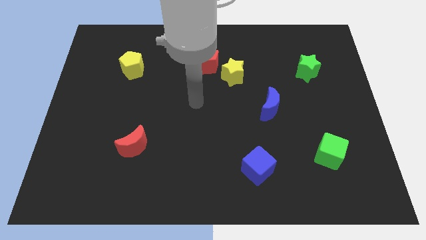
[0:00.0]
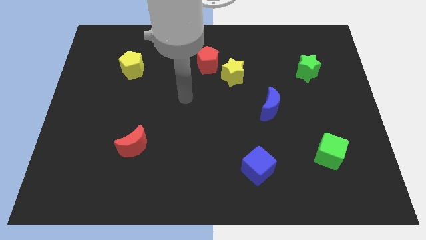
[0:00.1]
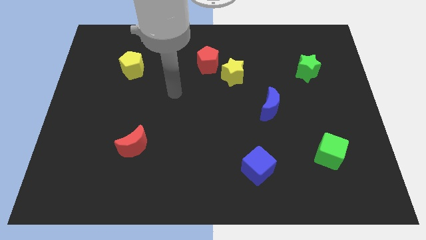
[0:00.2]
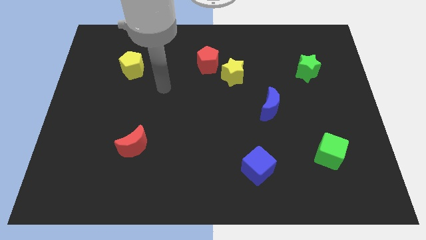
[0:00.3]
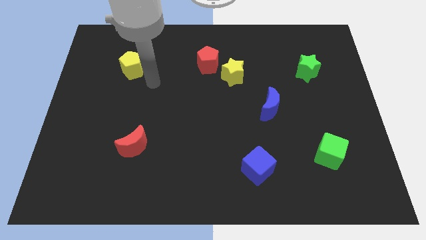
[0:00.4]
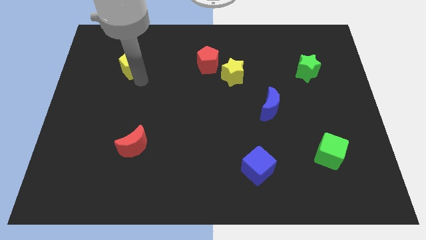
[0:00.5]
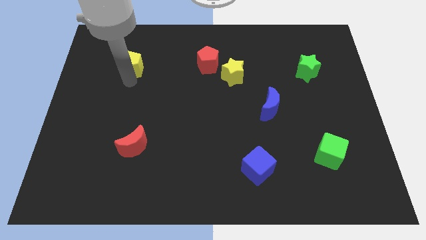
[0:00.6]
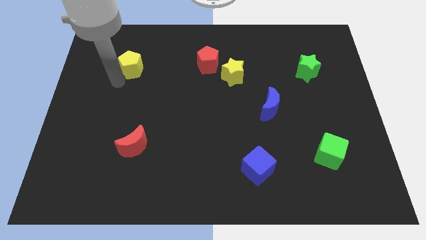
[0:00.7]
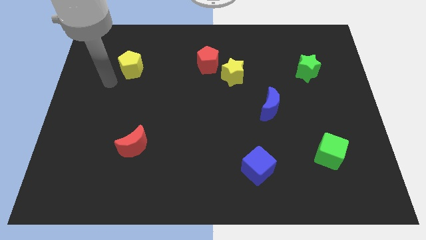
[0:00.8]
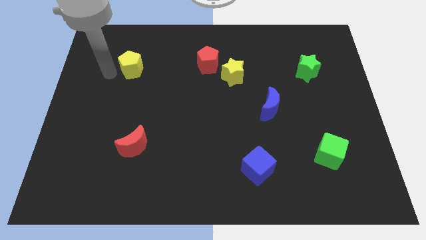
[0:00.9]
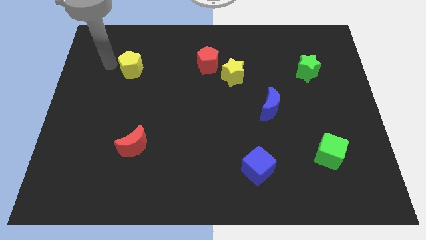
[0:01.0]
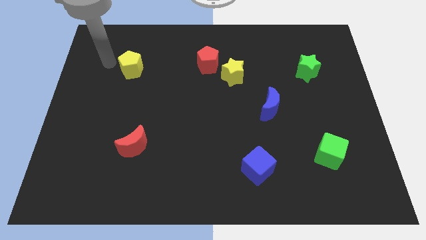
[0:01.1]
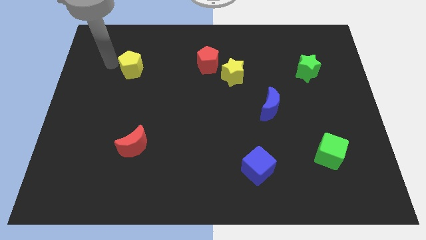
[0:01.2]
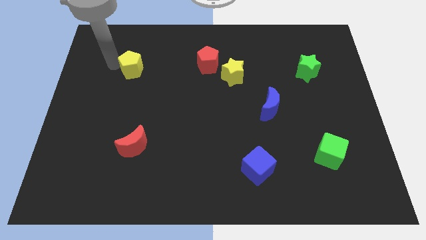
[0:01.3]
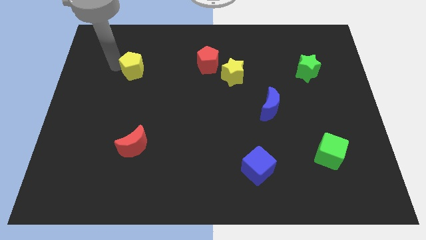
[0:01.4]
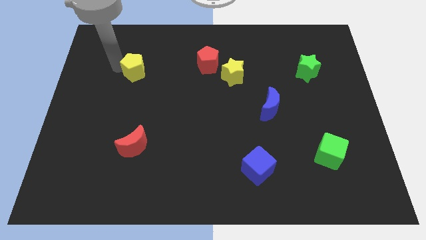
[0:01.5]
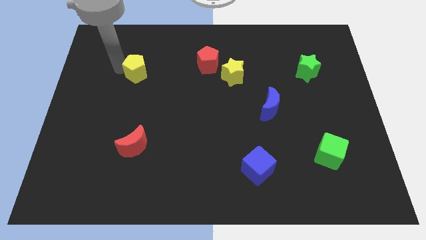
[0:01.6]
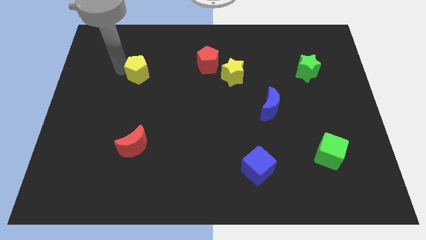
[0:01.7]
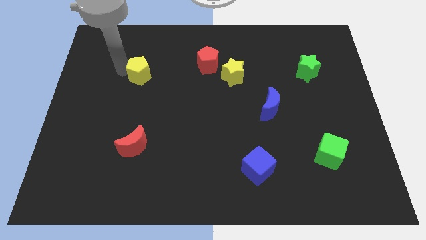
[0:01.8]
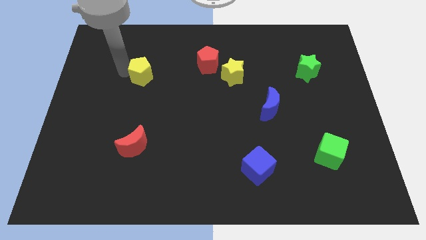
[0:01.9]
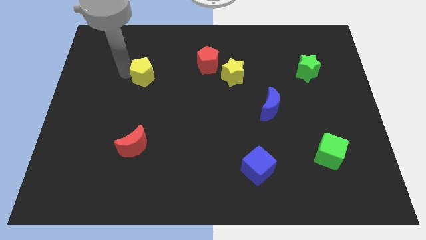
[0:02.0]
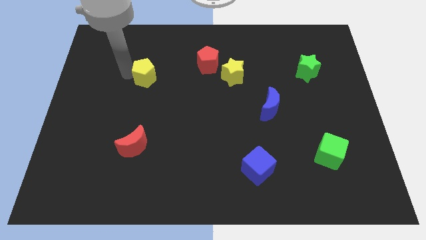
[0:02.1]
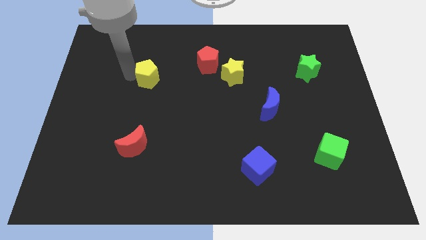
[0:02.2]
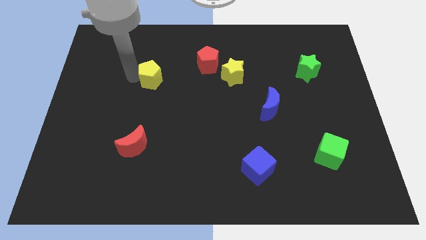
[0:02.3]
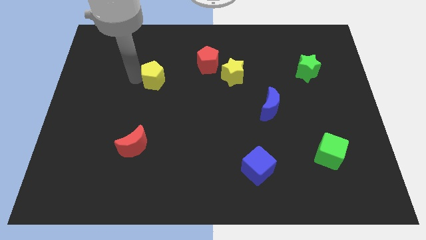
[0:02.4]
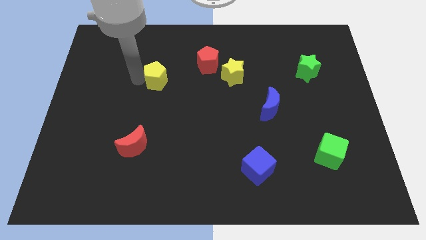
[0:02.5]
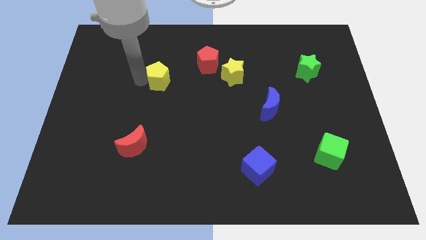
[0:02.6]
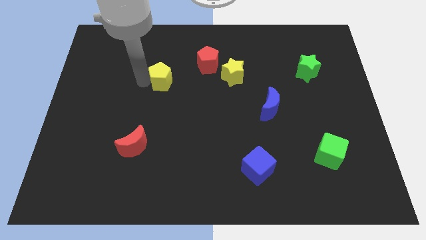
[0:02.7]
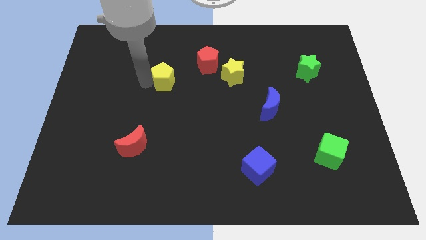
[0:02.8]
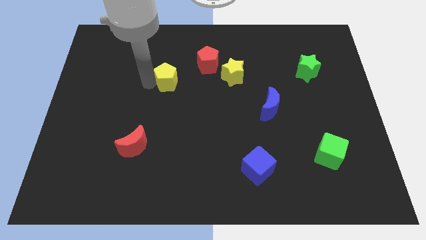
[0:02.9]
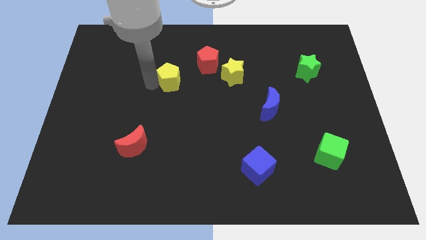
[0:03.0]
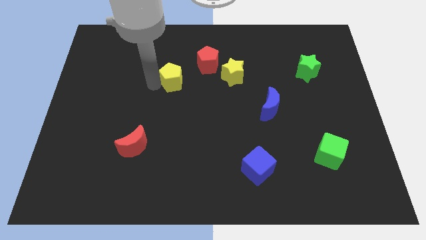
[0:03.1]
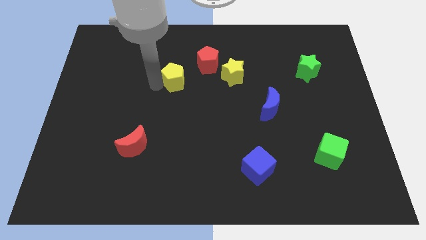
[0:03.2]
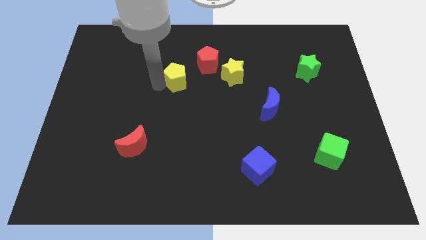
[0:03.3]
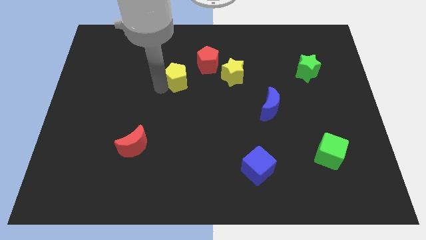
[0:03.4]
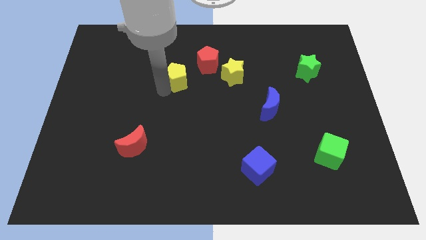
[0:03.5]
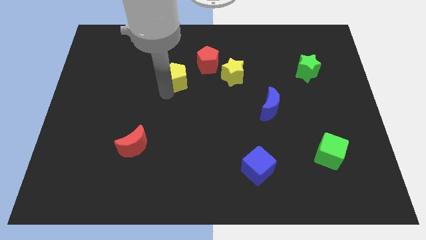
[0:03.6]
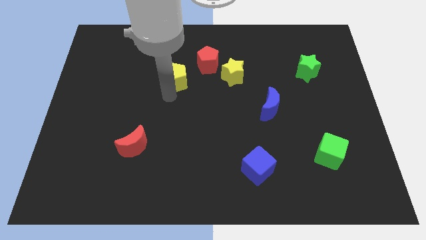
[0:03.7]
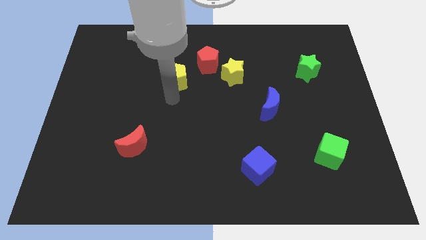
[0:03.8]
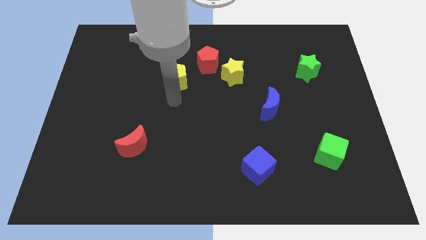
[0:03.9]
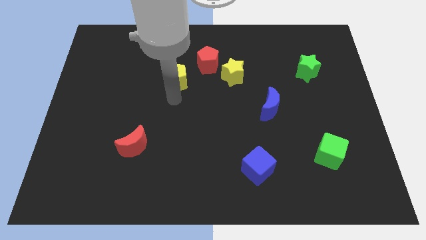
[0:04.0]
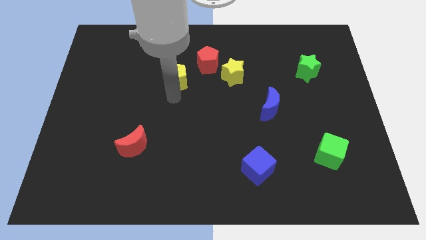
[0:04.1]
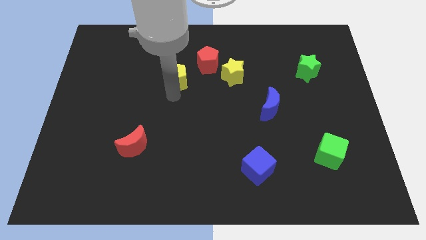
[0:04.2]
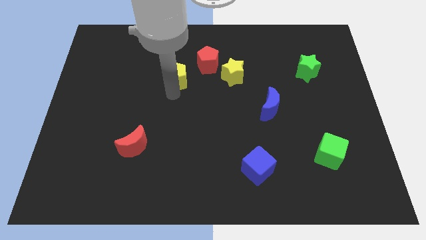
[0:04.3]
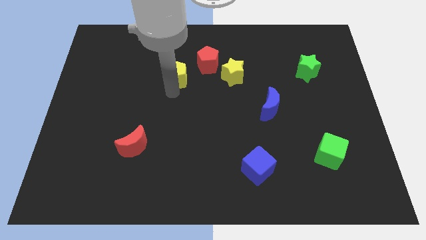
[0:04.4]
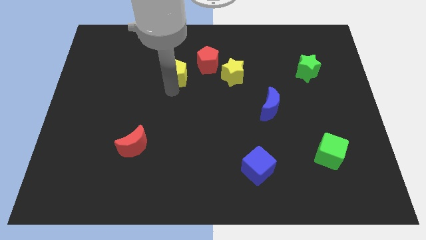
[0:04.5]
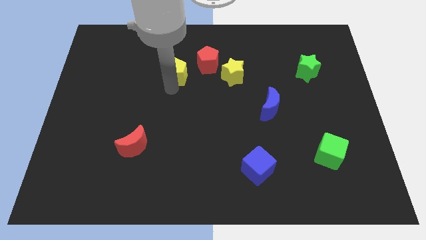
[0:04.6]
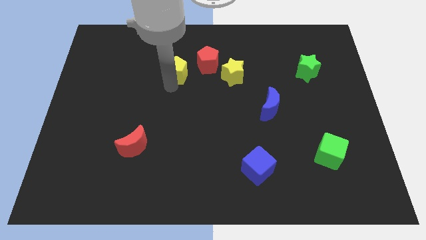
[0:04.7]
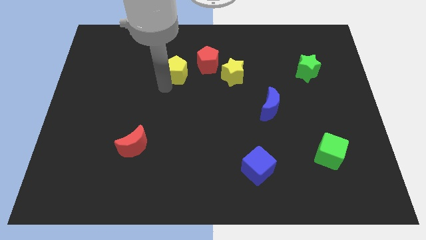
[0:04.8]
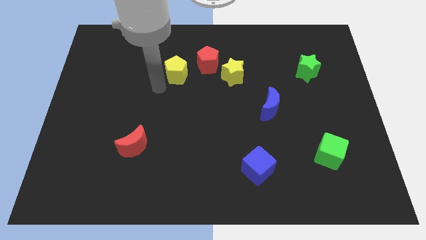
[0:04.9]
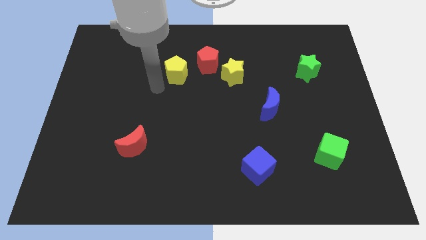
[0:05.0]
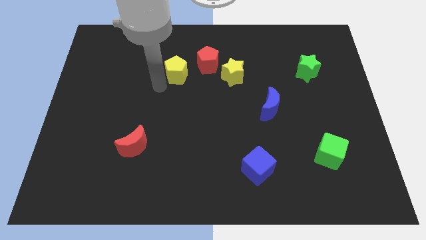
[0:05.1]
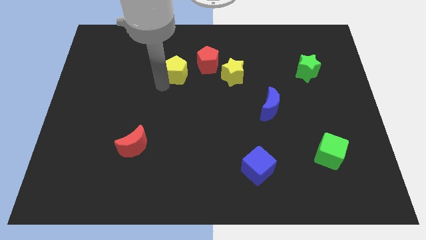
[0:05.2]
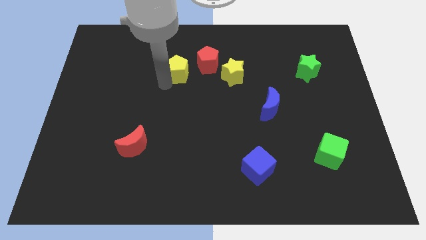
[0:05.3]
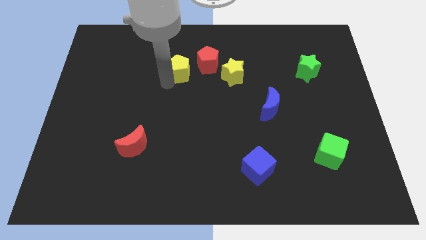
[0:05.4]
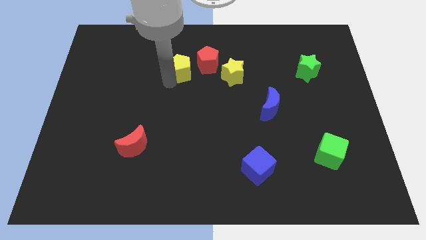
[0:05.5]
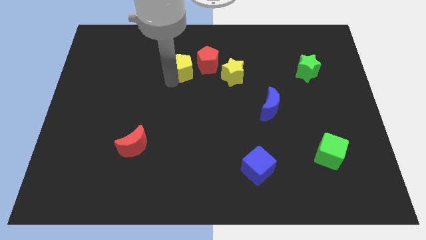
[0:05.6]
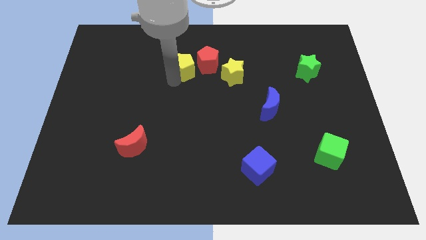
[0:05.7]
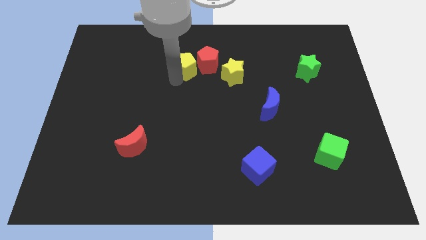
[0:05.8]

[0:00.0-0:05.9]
slide the yellow pentagon to the red pentagon

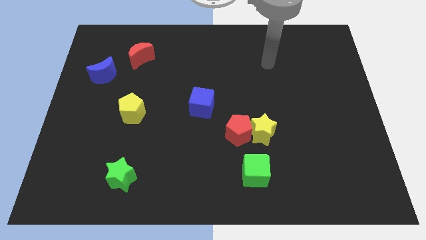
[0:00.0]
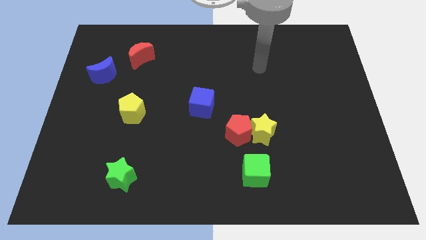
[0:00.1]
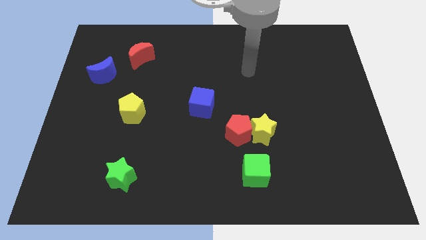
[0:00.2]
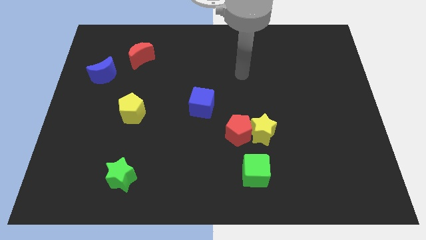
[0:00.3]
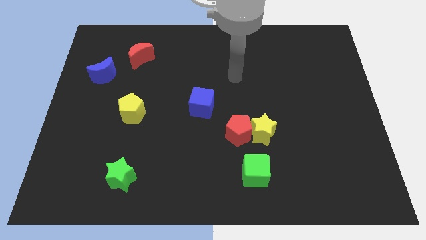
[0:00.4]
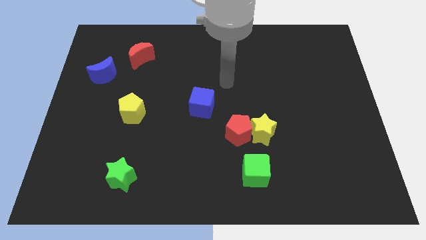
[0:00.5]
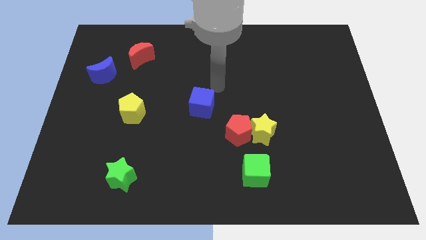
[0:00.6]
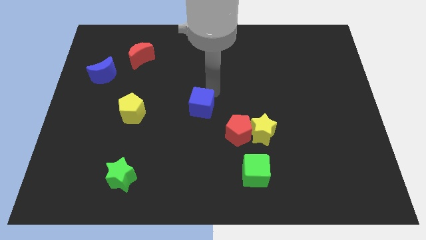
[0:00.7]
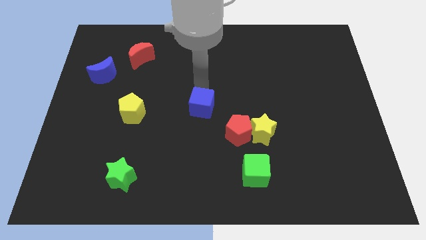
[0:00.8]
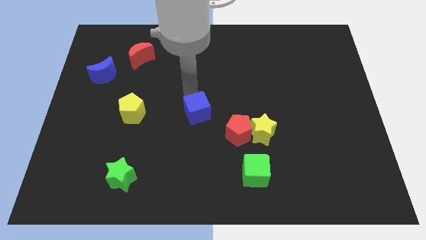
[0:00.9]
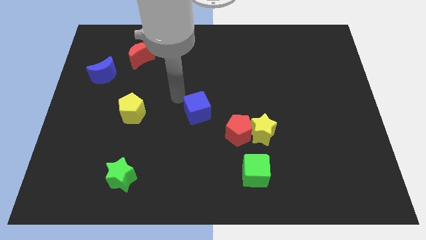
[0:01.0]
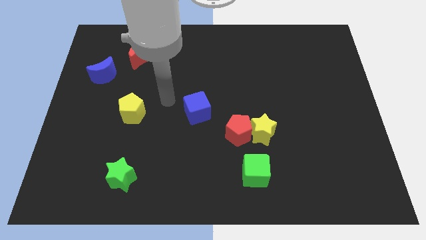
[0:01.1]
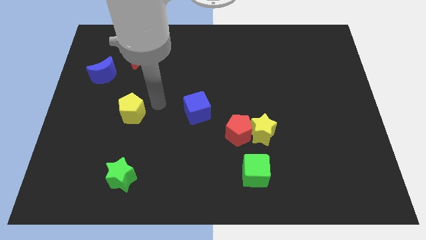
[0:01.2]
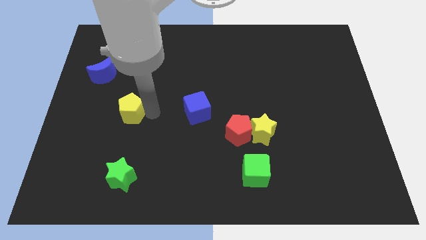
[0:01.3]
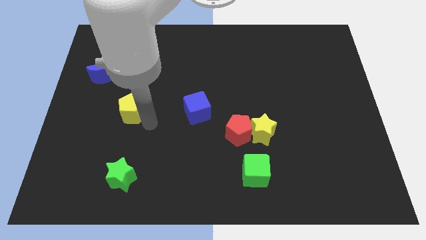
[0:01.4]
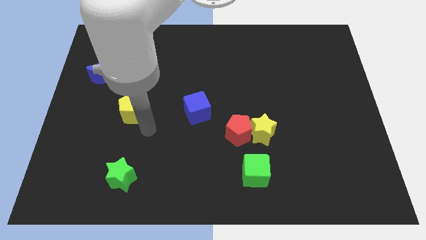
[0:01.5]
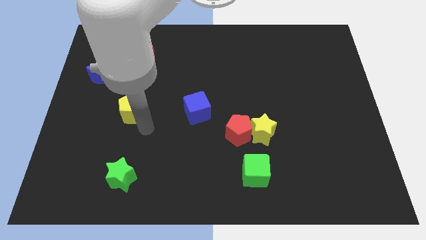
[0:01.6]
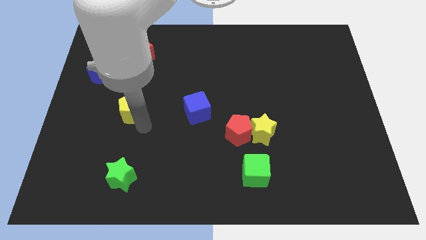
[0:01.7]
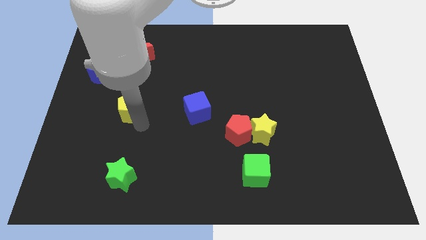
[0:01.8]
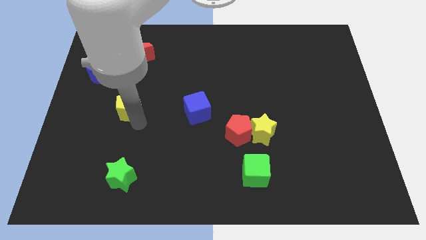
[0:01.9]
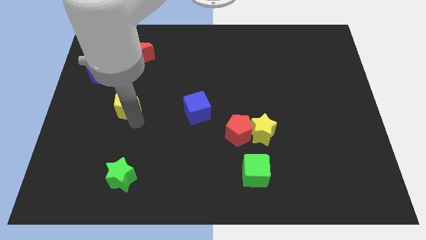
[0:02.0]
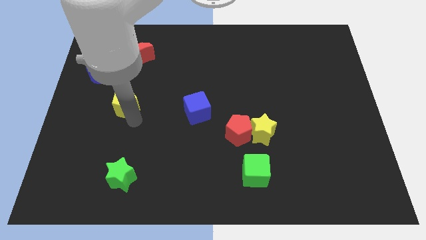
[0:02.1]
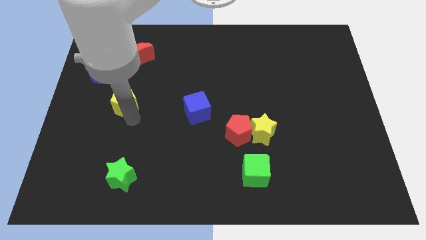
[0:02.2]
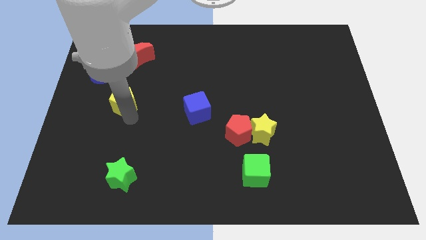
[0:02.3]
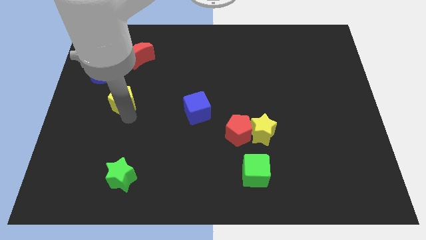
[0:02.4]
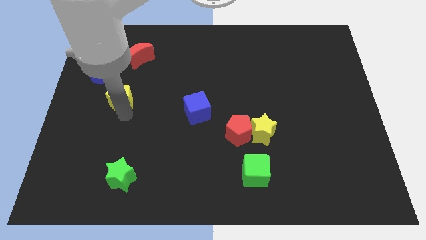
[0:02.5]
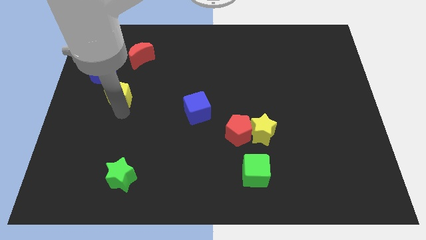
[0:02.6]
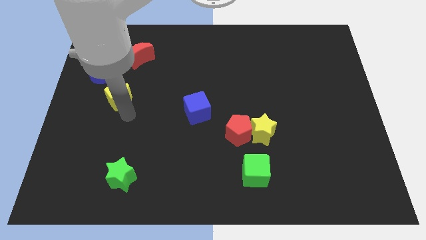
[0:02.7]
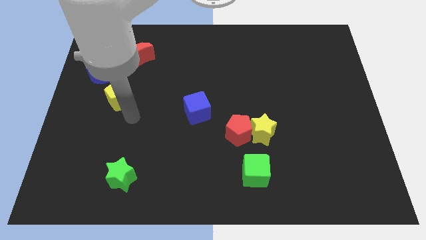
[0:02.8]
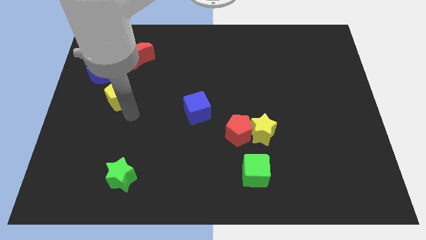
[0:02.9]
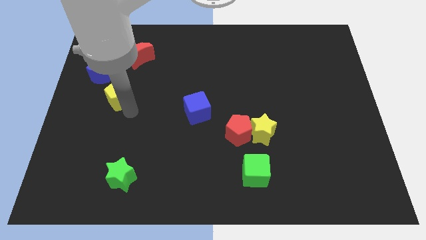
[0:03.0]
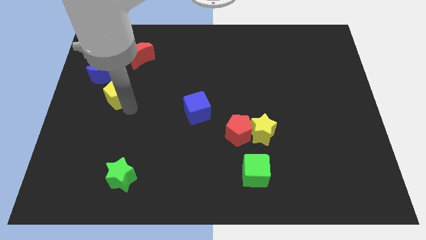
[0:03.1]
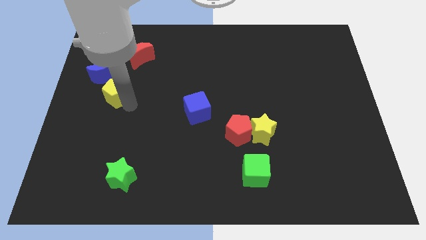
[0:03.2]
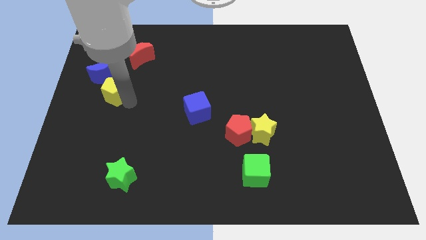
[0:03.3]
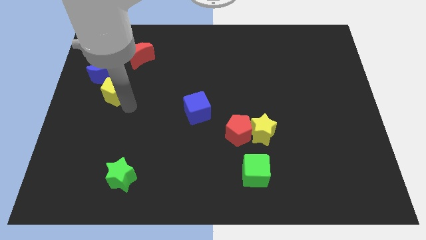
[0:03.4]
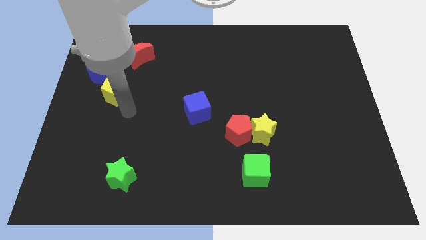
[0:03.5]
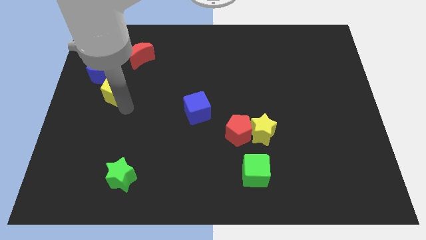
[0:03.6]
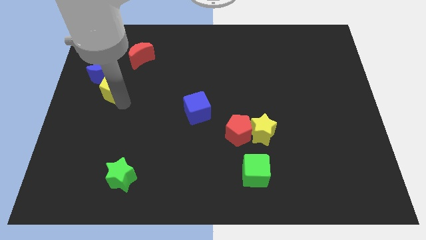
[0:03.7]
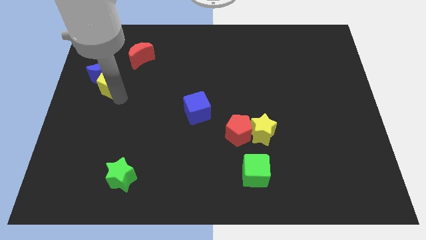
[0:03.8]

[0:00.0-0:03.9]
slide the yellow pentagon to the blue moon
